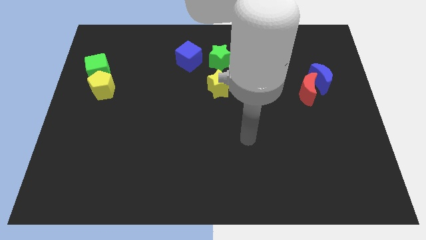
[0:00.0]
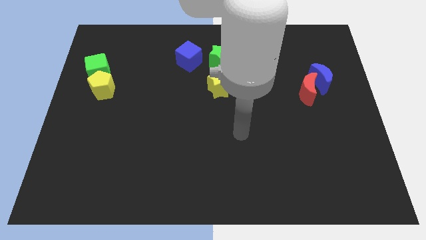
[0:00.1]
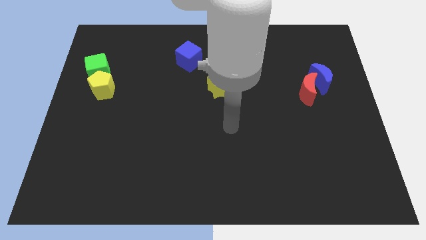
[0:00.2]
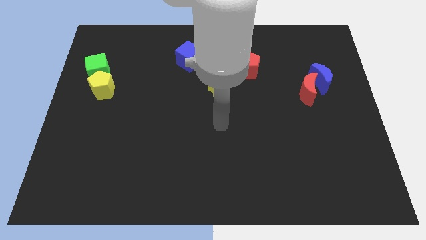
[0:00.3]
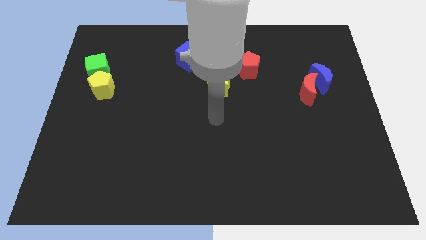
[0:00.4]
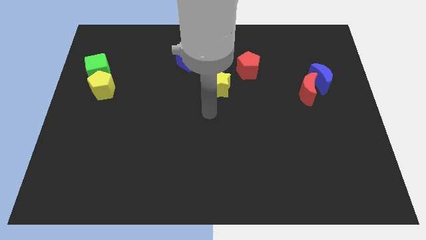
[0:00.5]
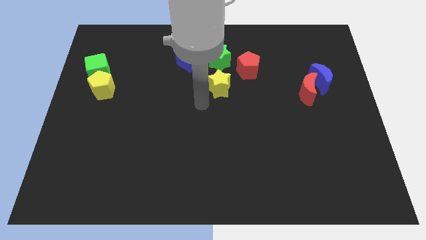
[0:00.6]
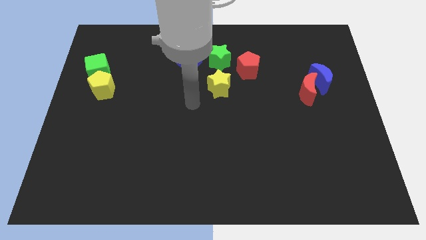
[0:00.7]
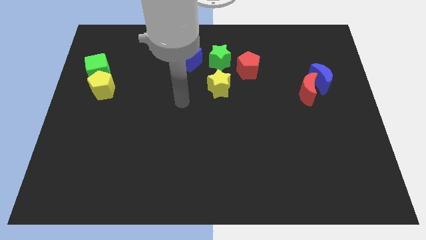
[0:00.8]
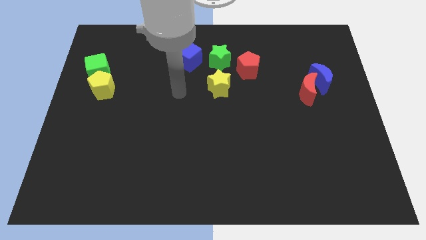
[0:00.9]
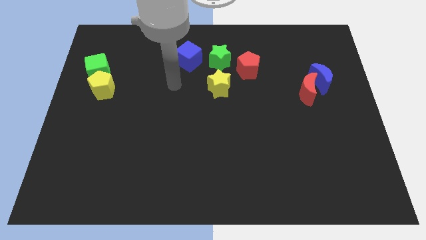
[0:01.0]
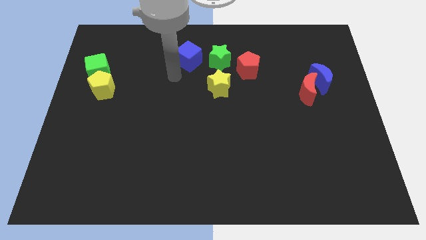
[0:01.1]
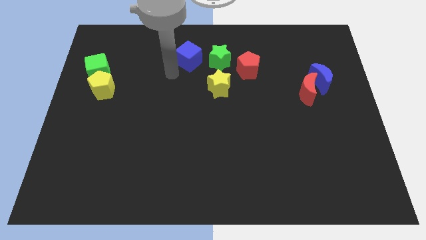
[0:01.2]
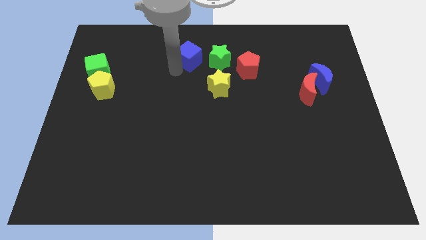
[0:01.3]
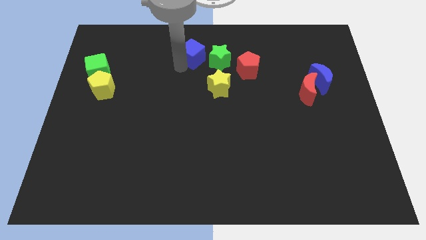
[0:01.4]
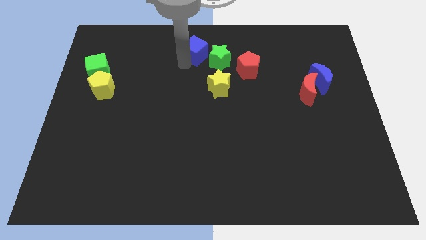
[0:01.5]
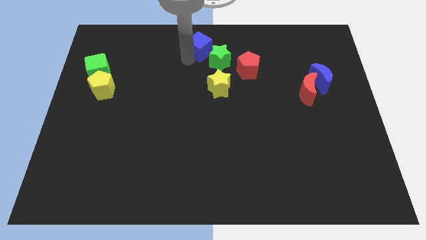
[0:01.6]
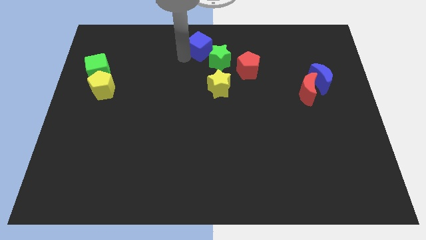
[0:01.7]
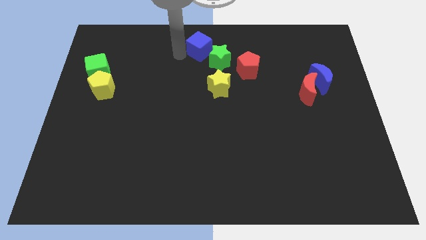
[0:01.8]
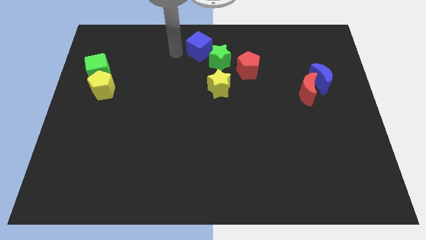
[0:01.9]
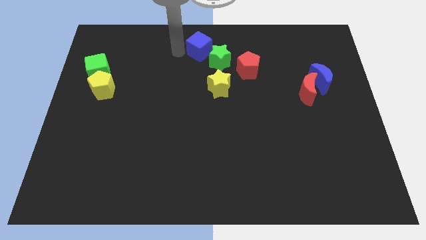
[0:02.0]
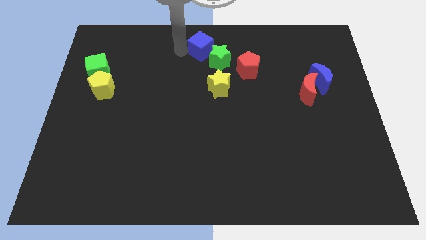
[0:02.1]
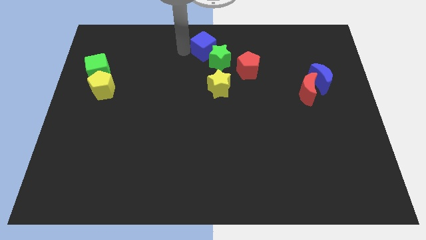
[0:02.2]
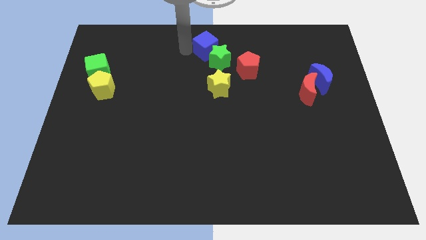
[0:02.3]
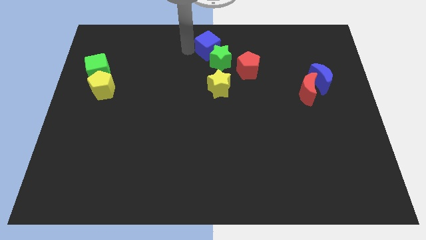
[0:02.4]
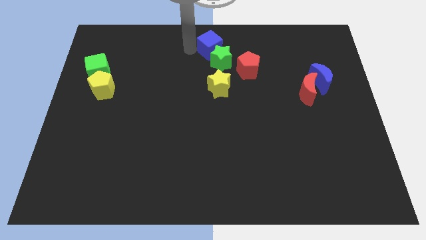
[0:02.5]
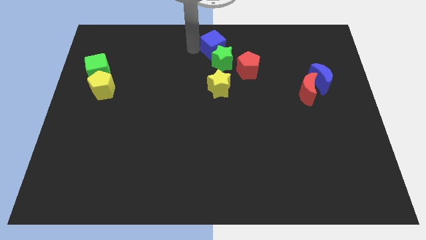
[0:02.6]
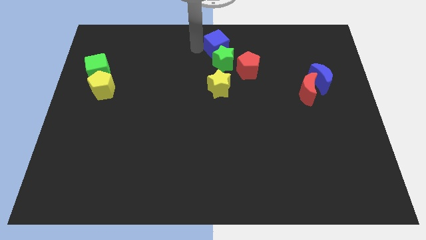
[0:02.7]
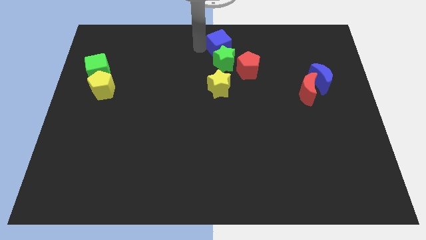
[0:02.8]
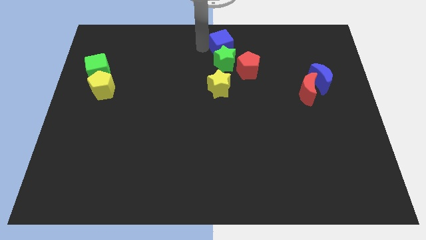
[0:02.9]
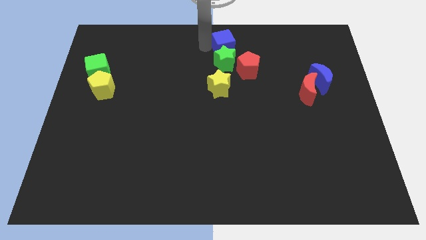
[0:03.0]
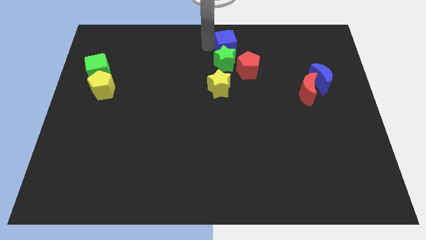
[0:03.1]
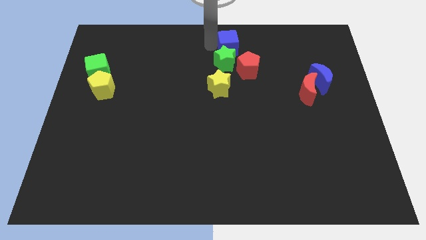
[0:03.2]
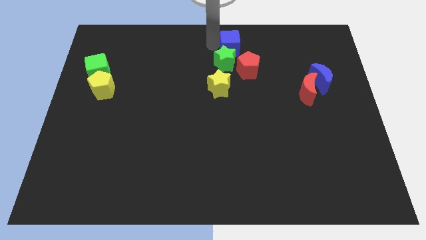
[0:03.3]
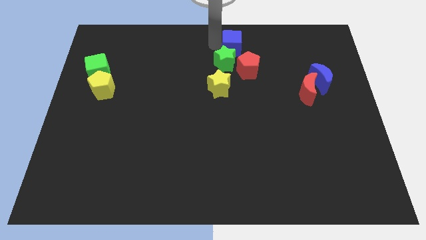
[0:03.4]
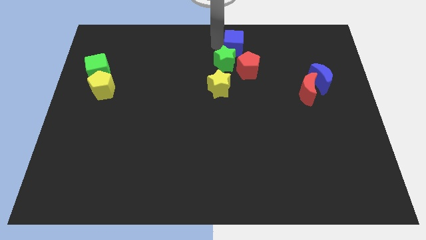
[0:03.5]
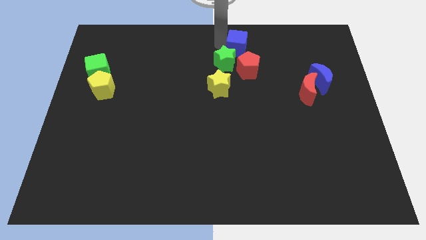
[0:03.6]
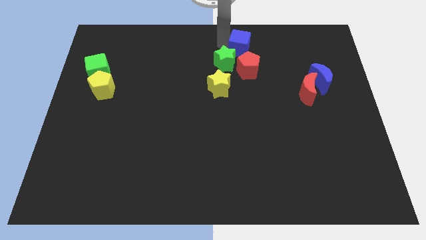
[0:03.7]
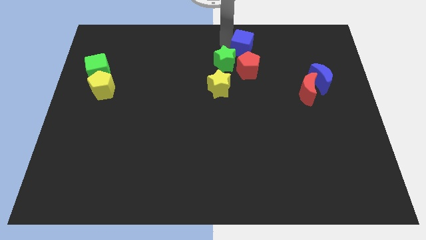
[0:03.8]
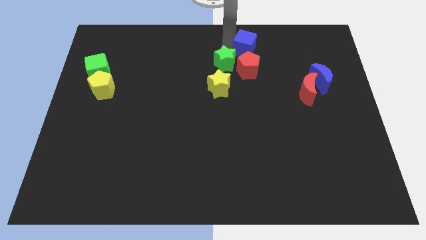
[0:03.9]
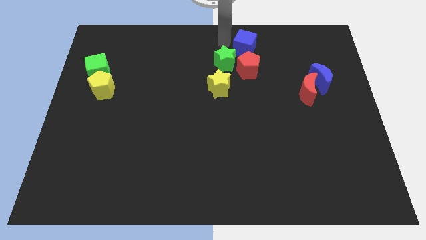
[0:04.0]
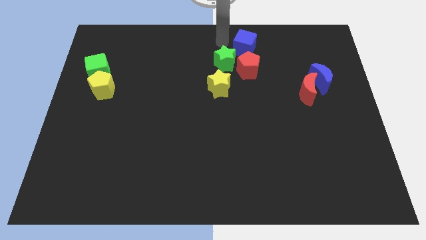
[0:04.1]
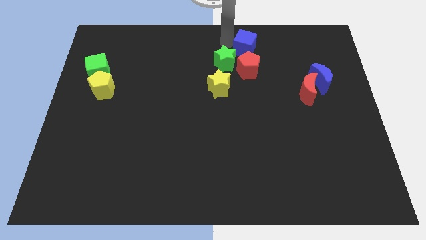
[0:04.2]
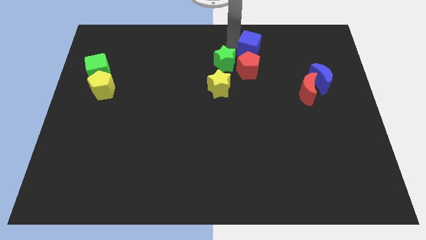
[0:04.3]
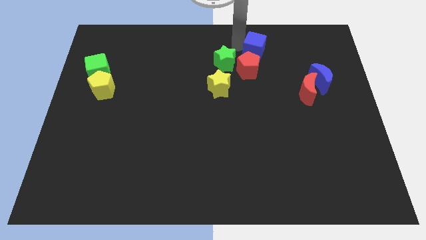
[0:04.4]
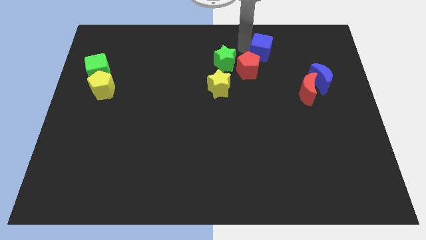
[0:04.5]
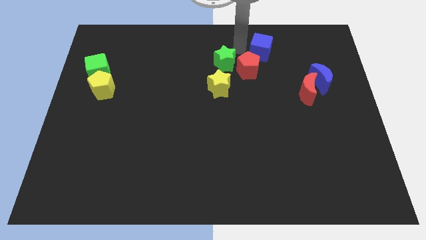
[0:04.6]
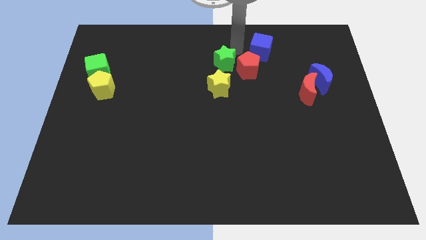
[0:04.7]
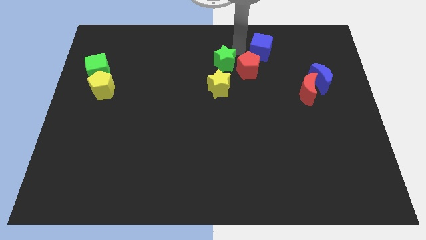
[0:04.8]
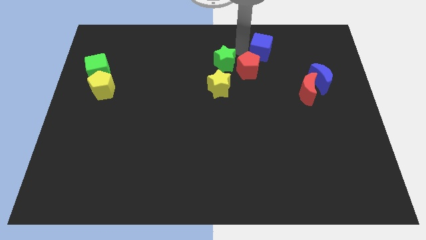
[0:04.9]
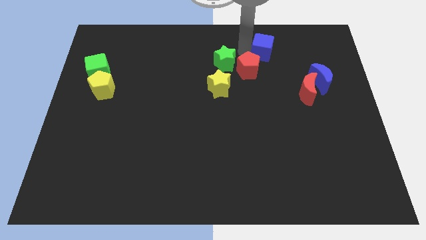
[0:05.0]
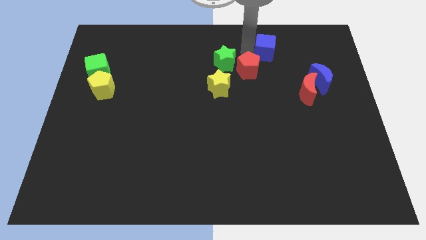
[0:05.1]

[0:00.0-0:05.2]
push the blue cube right

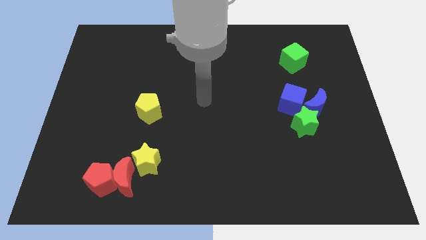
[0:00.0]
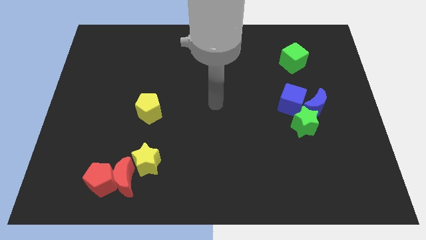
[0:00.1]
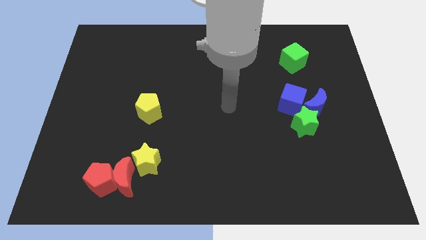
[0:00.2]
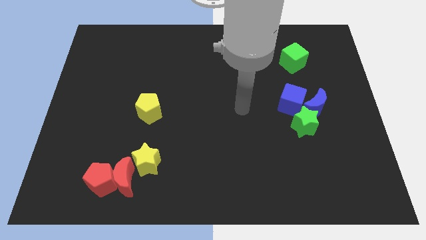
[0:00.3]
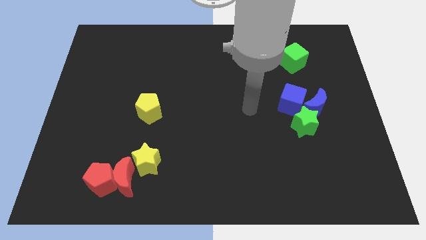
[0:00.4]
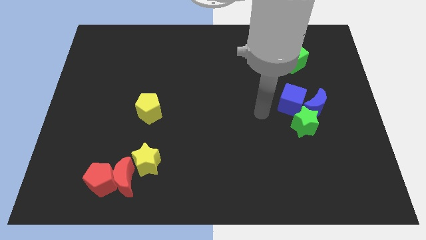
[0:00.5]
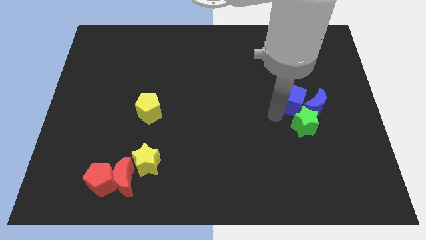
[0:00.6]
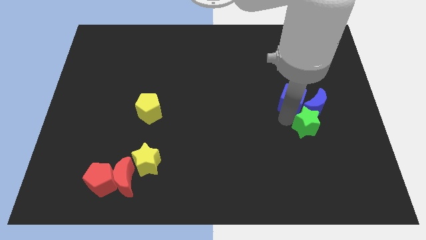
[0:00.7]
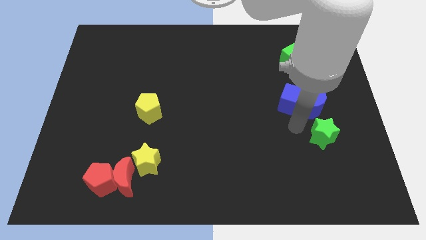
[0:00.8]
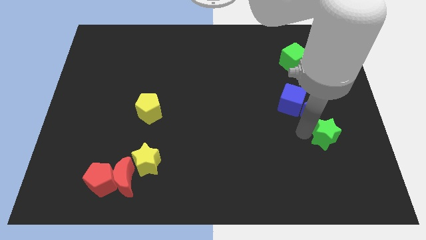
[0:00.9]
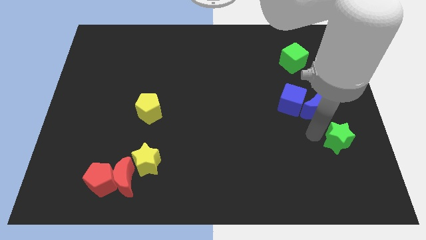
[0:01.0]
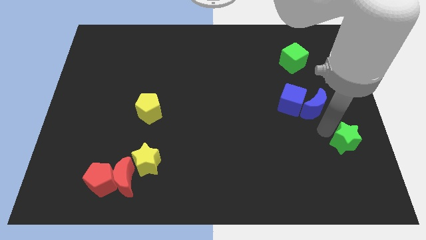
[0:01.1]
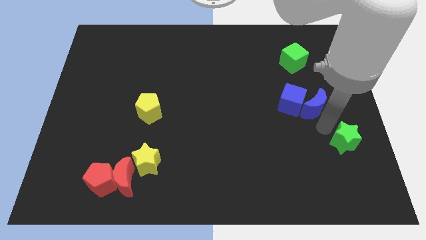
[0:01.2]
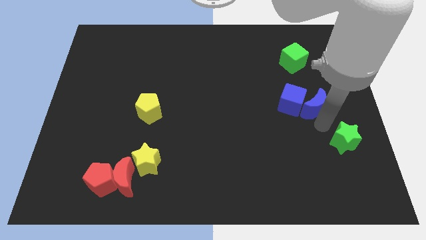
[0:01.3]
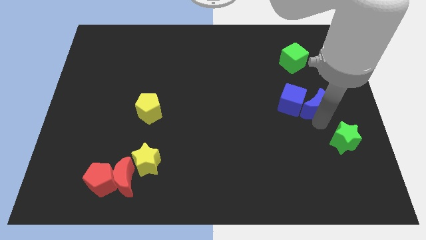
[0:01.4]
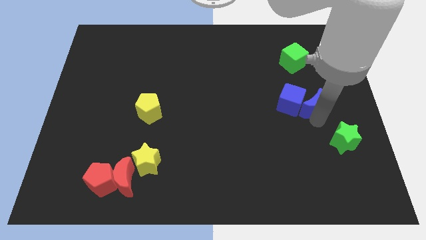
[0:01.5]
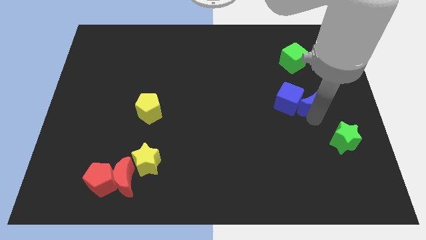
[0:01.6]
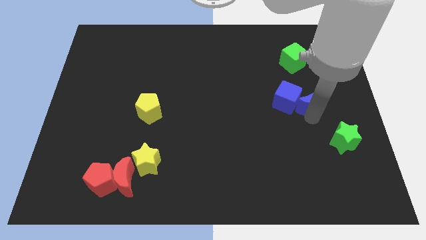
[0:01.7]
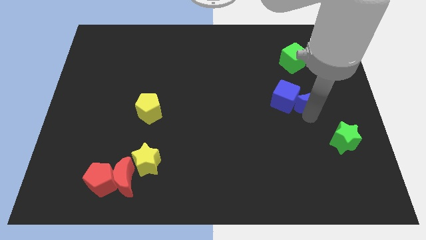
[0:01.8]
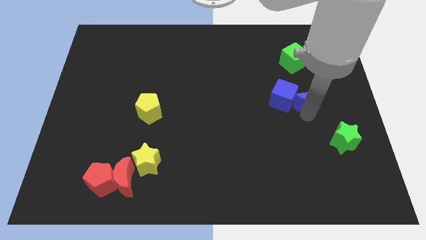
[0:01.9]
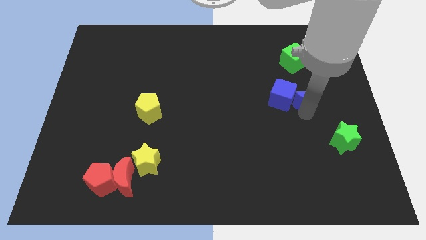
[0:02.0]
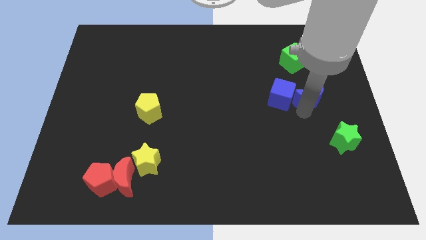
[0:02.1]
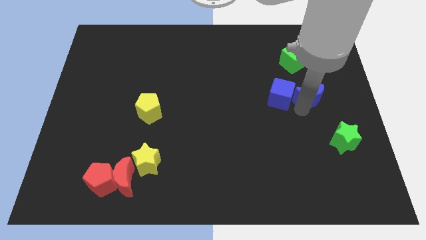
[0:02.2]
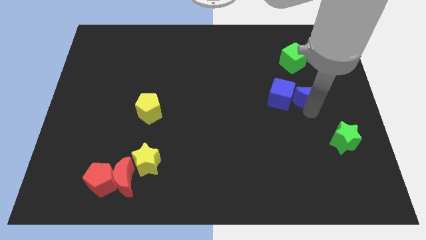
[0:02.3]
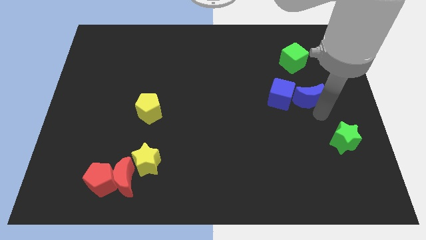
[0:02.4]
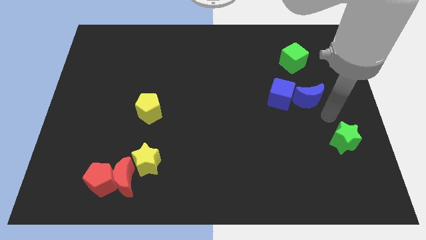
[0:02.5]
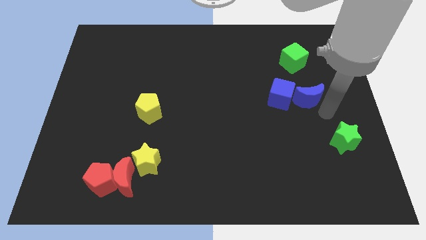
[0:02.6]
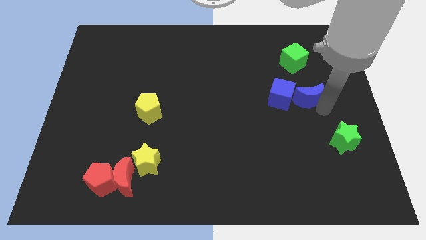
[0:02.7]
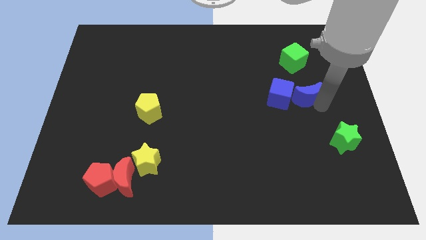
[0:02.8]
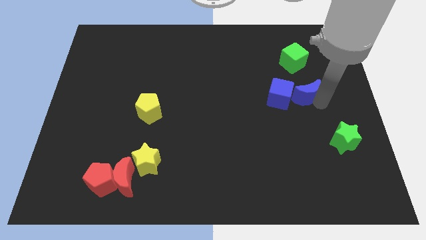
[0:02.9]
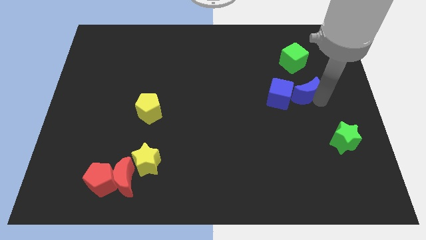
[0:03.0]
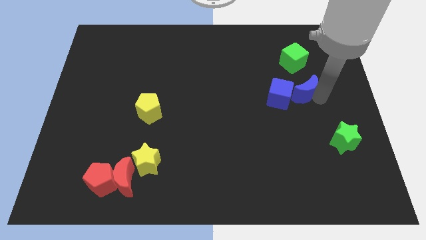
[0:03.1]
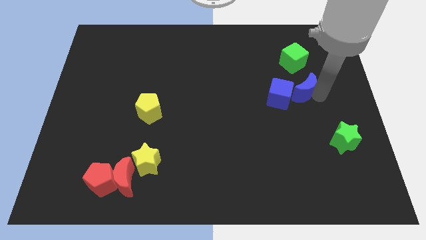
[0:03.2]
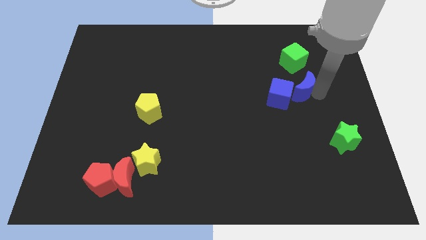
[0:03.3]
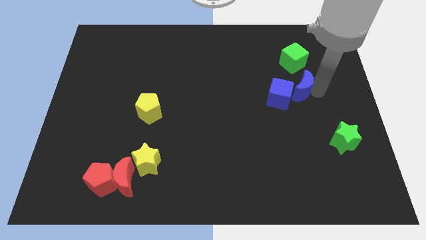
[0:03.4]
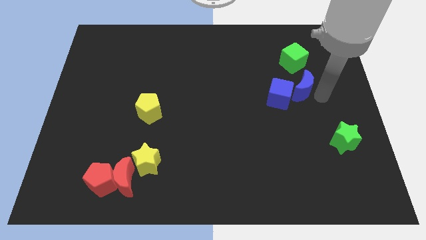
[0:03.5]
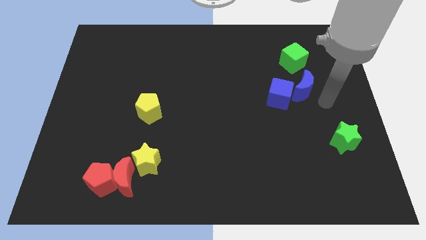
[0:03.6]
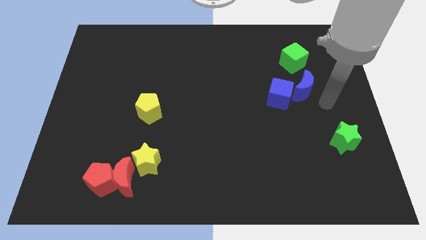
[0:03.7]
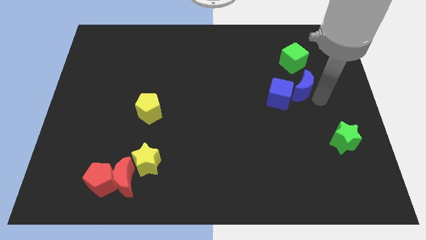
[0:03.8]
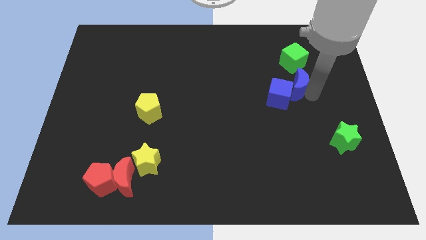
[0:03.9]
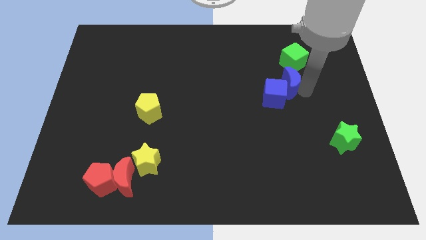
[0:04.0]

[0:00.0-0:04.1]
push the blue moon upwards and left a little
